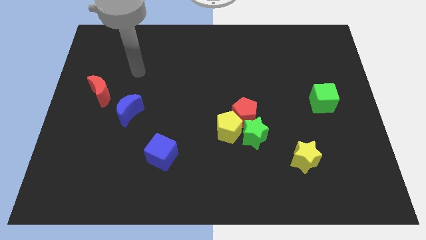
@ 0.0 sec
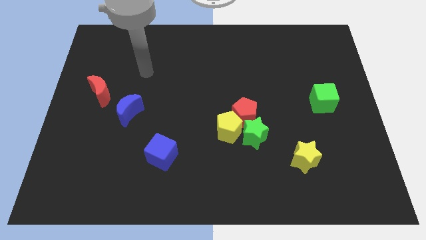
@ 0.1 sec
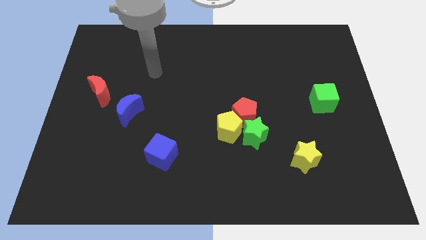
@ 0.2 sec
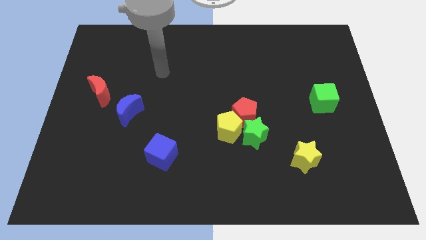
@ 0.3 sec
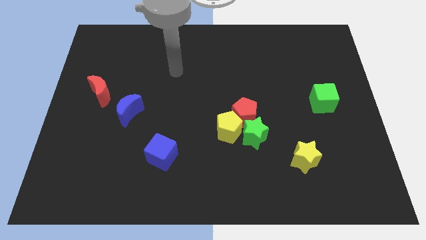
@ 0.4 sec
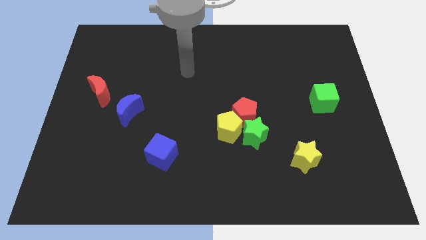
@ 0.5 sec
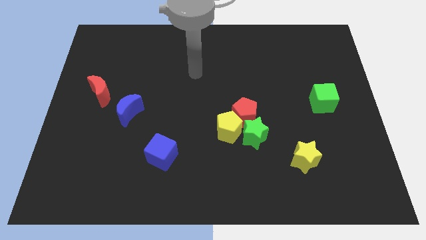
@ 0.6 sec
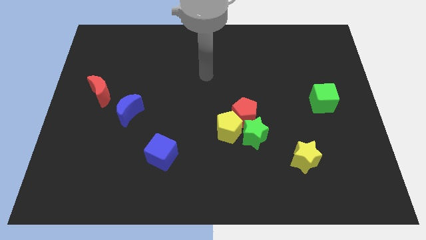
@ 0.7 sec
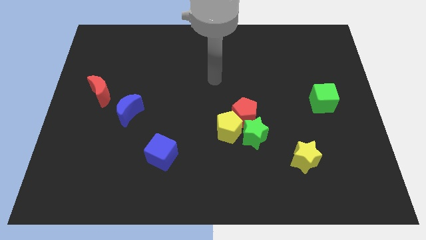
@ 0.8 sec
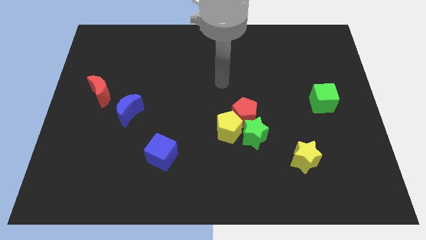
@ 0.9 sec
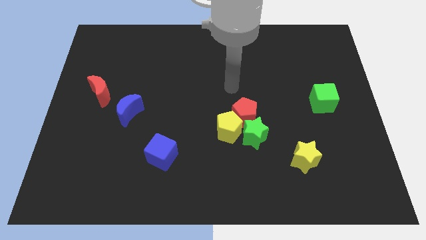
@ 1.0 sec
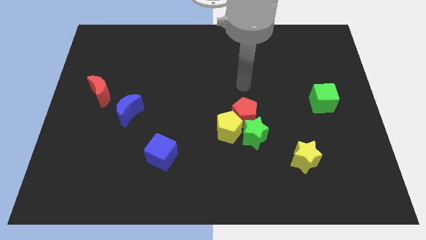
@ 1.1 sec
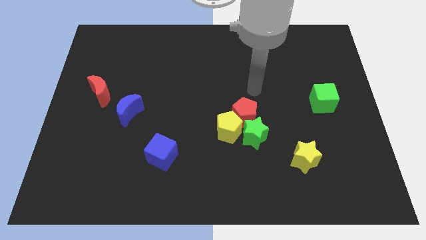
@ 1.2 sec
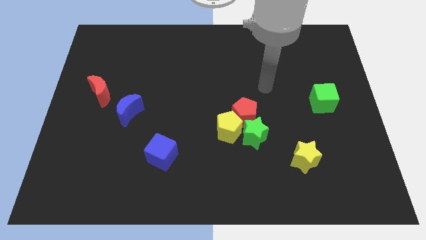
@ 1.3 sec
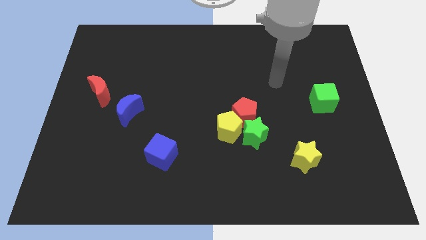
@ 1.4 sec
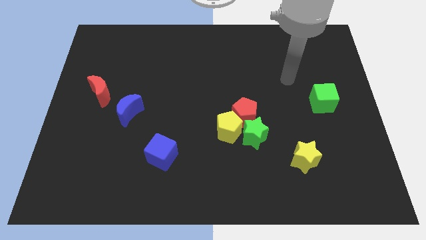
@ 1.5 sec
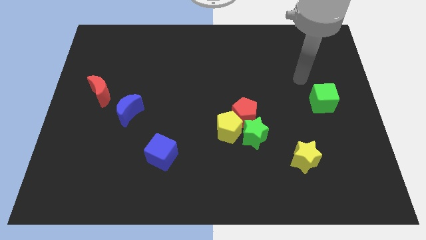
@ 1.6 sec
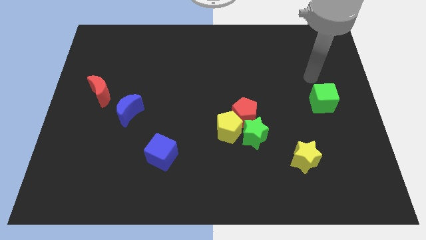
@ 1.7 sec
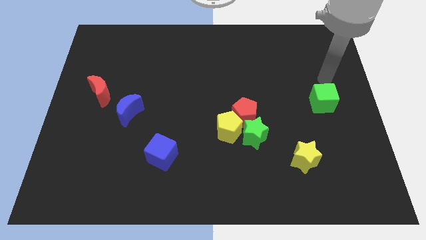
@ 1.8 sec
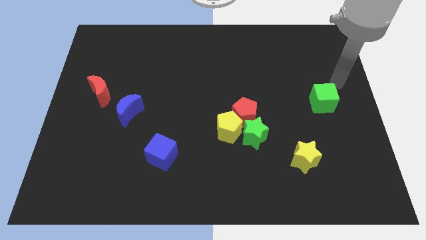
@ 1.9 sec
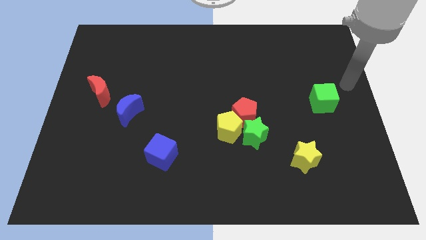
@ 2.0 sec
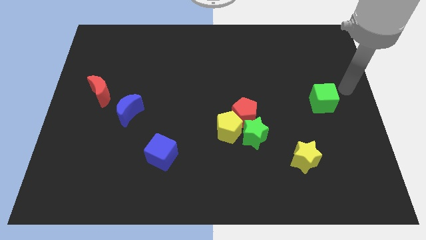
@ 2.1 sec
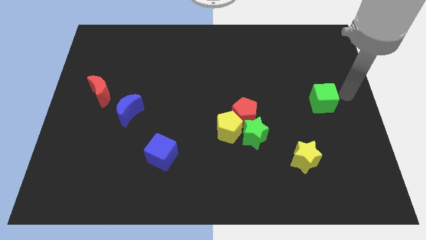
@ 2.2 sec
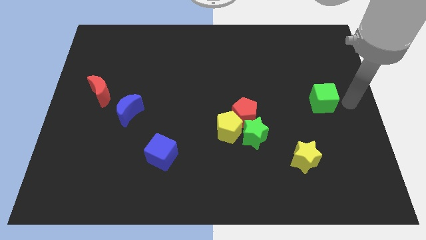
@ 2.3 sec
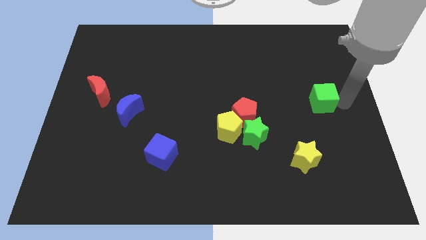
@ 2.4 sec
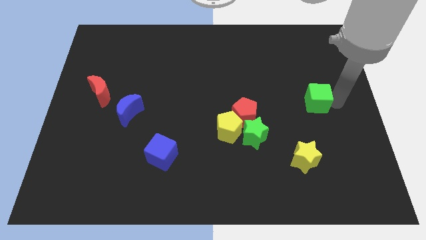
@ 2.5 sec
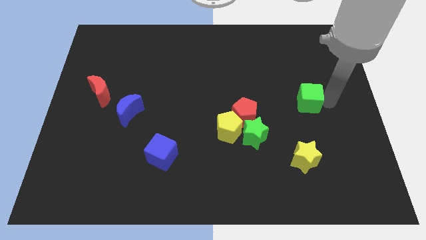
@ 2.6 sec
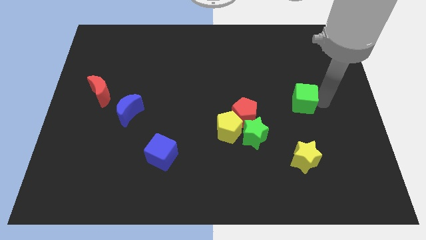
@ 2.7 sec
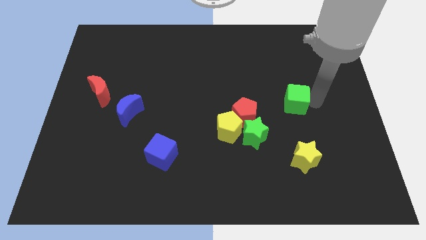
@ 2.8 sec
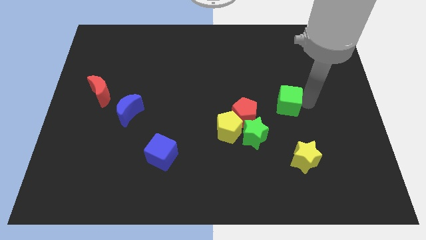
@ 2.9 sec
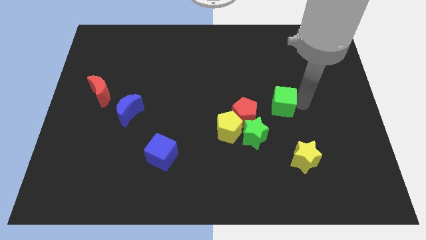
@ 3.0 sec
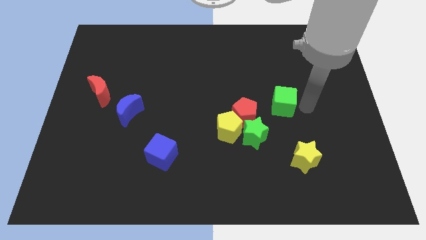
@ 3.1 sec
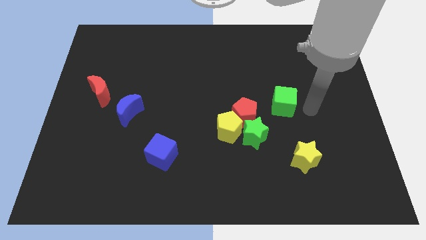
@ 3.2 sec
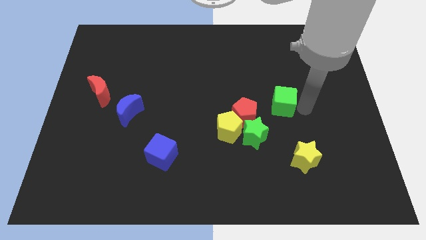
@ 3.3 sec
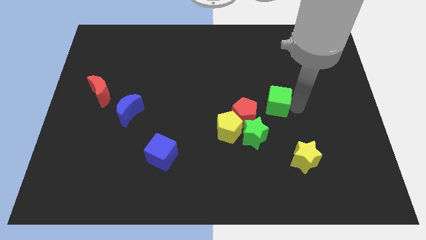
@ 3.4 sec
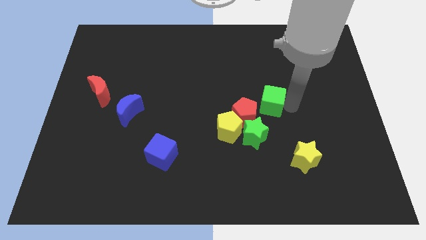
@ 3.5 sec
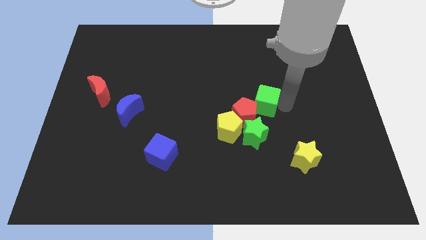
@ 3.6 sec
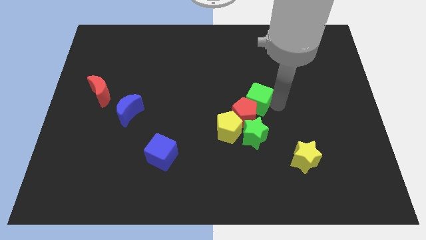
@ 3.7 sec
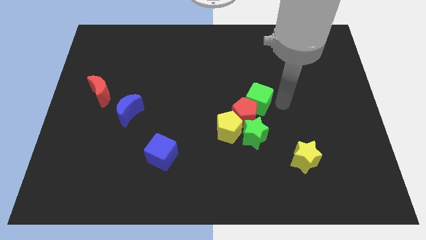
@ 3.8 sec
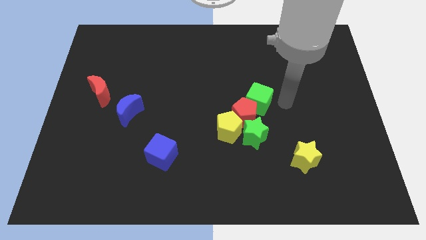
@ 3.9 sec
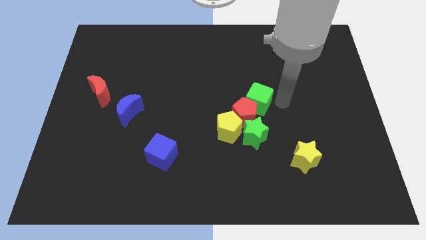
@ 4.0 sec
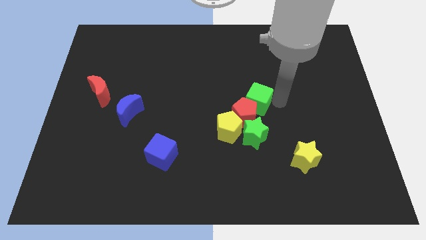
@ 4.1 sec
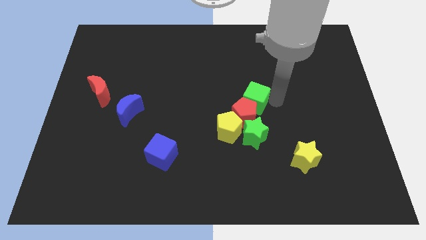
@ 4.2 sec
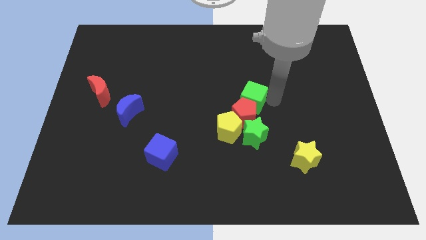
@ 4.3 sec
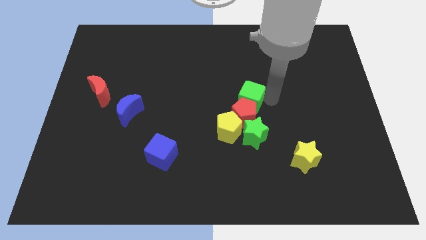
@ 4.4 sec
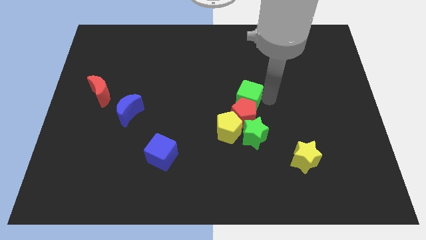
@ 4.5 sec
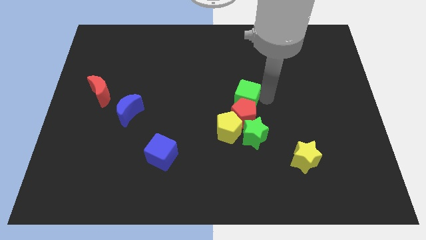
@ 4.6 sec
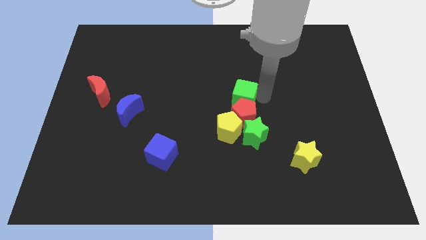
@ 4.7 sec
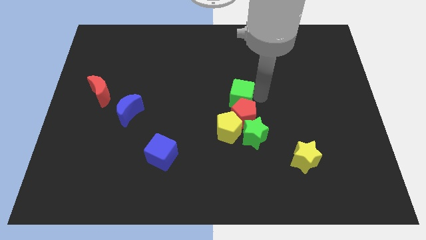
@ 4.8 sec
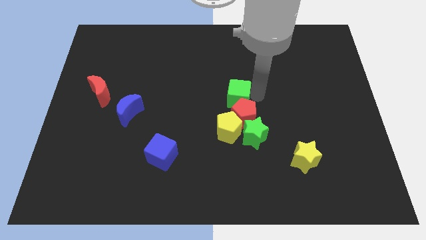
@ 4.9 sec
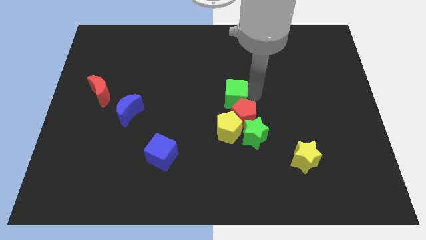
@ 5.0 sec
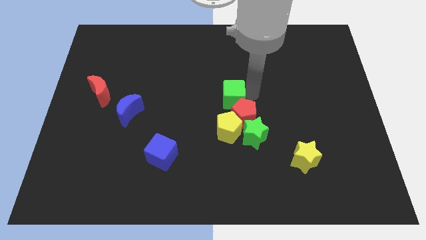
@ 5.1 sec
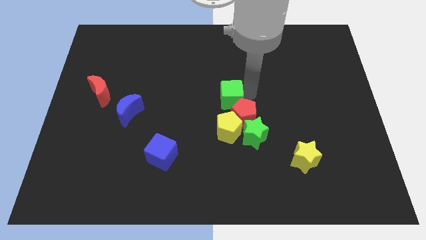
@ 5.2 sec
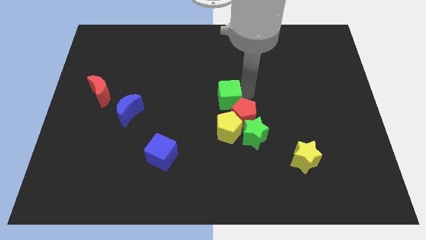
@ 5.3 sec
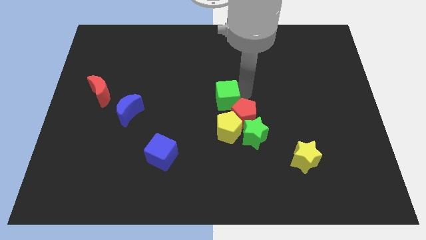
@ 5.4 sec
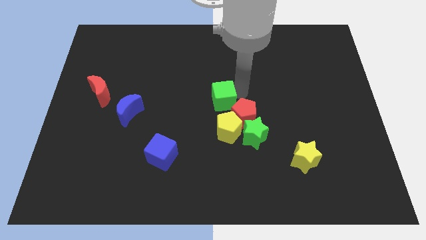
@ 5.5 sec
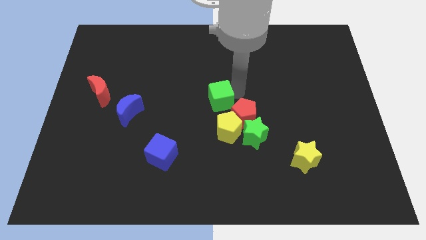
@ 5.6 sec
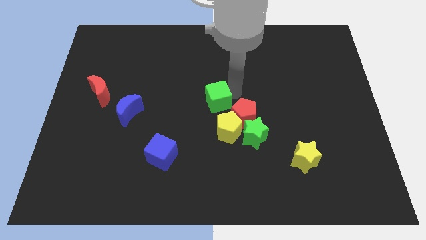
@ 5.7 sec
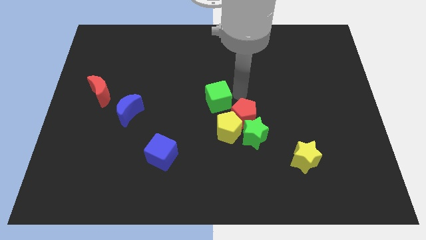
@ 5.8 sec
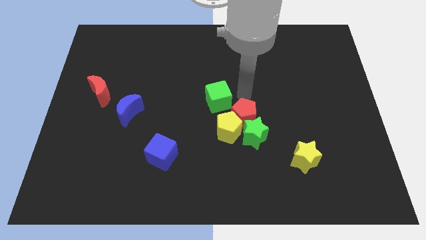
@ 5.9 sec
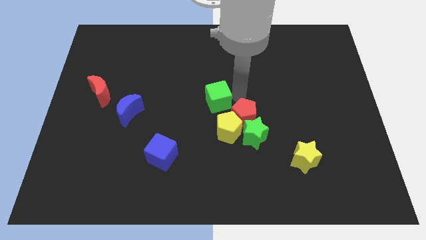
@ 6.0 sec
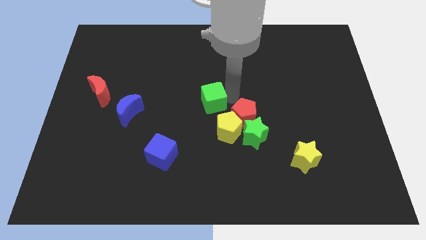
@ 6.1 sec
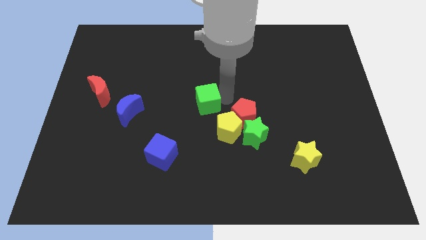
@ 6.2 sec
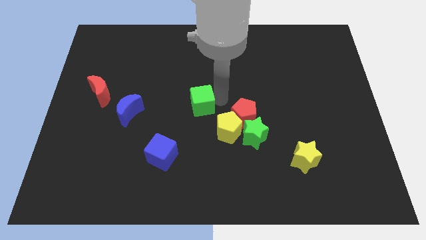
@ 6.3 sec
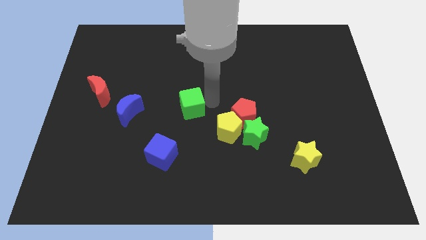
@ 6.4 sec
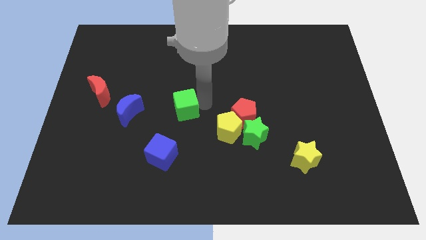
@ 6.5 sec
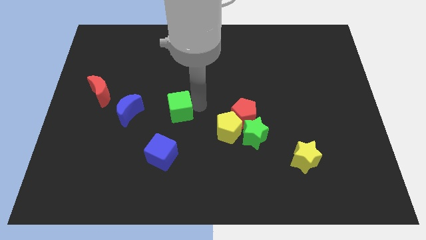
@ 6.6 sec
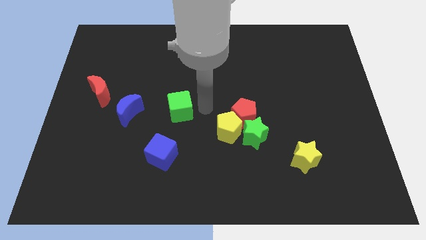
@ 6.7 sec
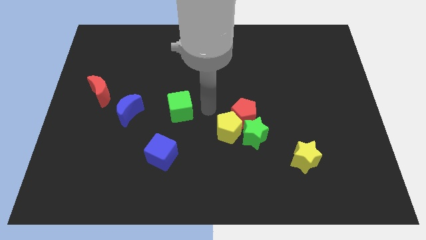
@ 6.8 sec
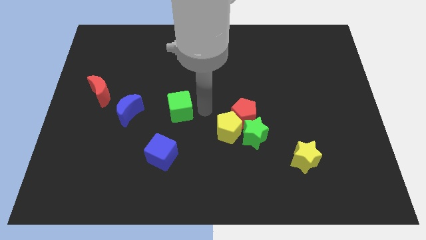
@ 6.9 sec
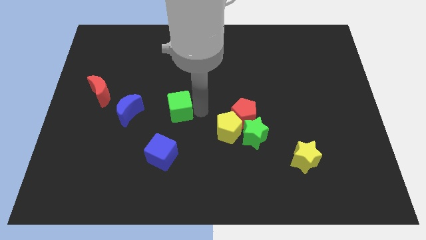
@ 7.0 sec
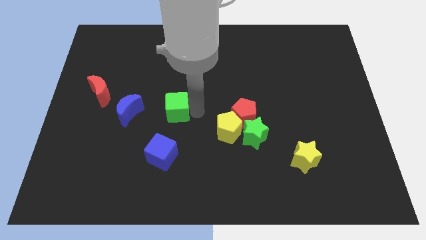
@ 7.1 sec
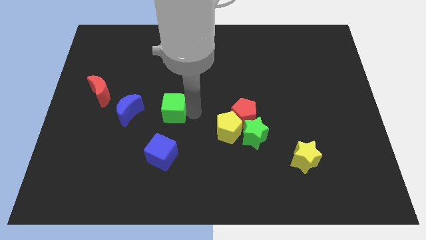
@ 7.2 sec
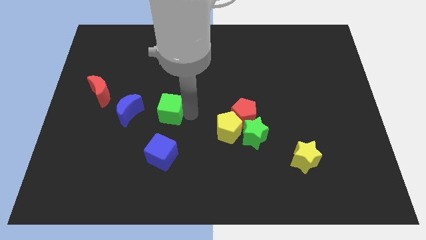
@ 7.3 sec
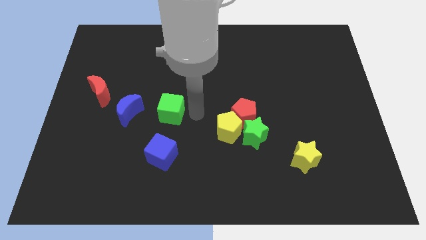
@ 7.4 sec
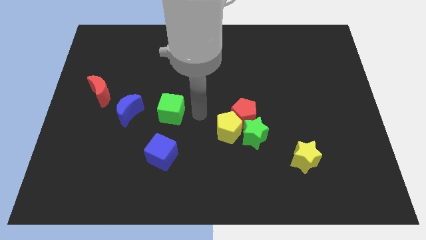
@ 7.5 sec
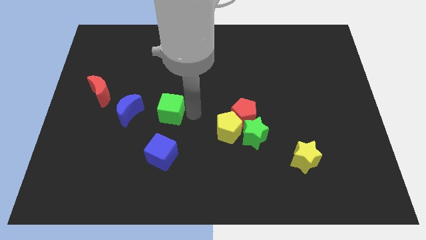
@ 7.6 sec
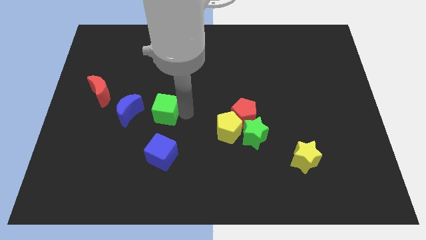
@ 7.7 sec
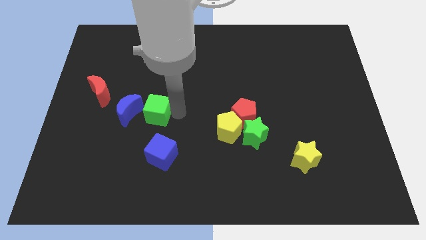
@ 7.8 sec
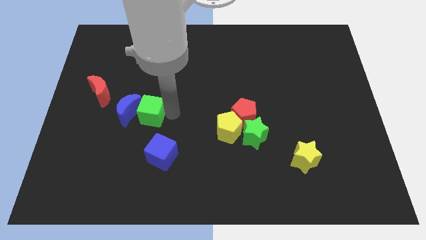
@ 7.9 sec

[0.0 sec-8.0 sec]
move the green cube to the blue moon
